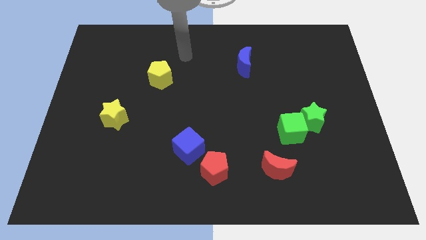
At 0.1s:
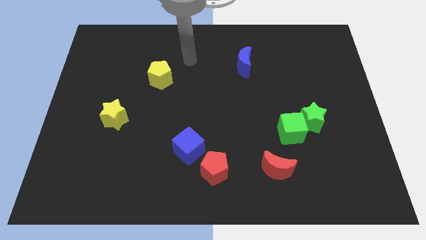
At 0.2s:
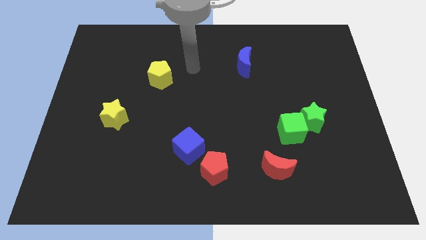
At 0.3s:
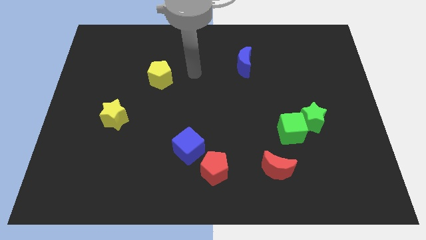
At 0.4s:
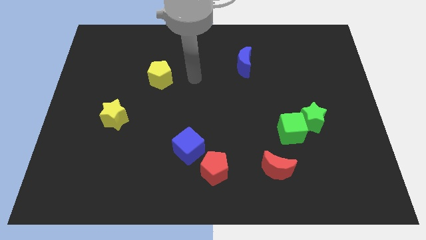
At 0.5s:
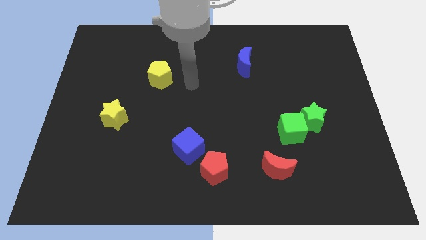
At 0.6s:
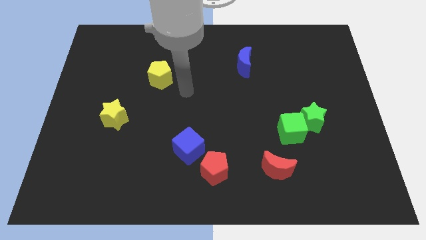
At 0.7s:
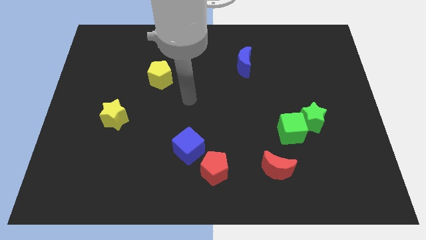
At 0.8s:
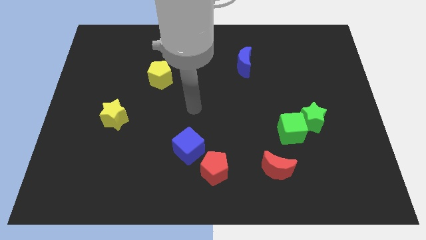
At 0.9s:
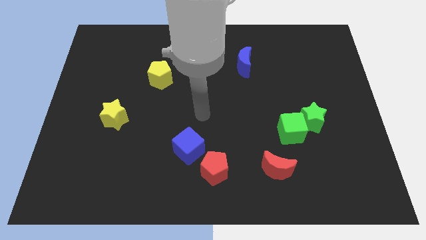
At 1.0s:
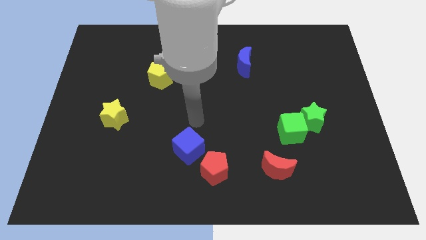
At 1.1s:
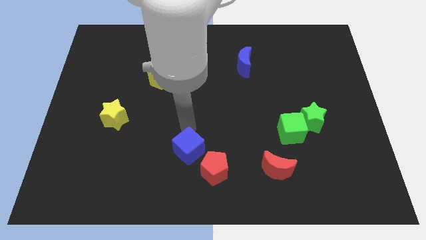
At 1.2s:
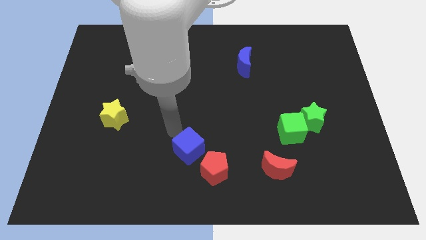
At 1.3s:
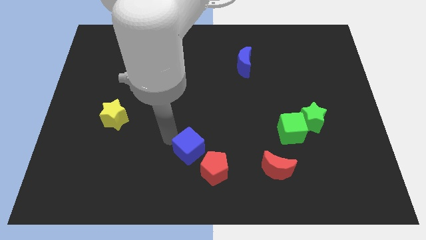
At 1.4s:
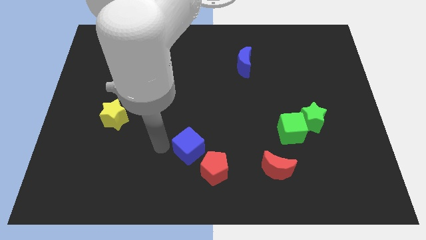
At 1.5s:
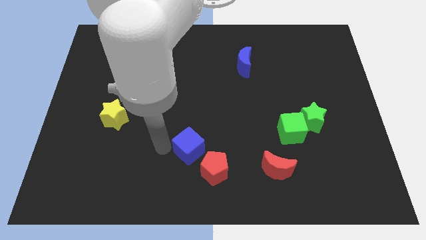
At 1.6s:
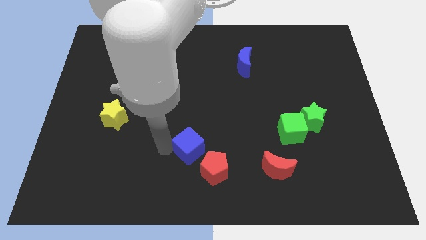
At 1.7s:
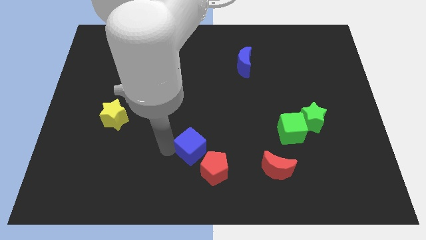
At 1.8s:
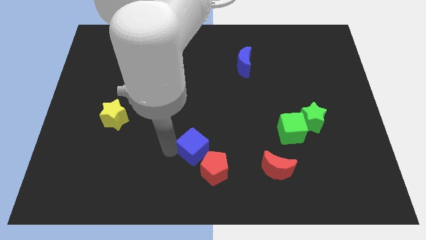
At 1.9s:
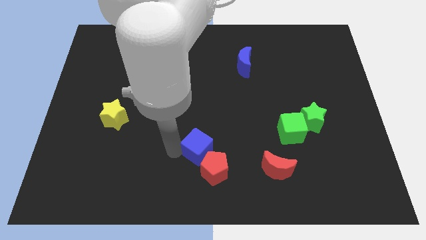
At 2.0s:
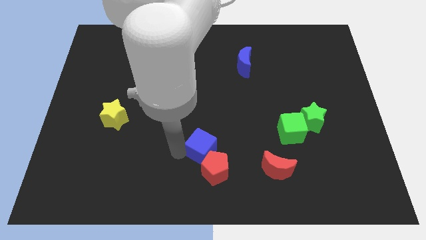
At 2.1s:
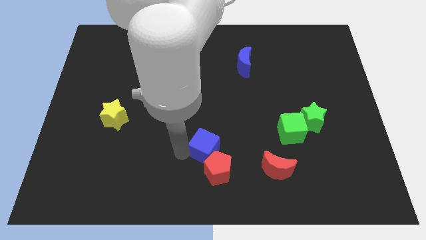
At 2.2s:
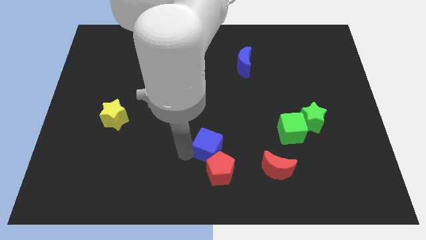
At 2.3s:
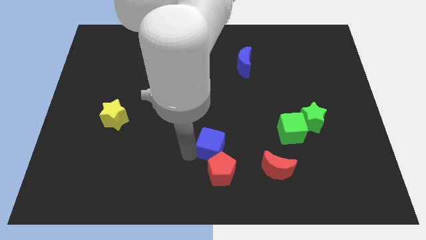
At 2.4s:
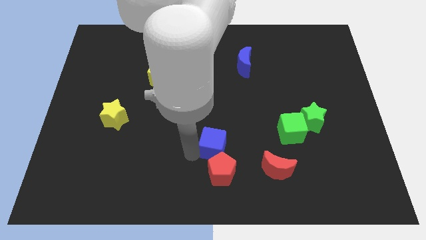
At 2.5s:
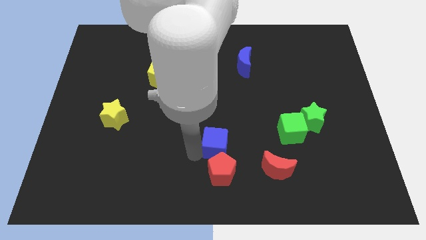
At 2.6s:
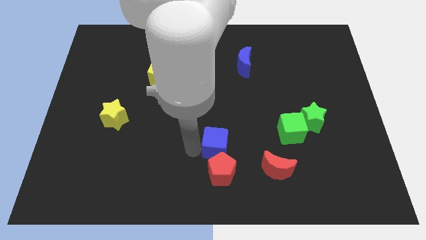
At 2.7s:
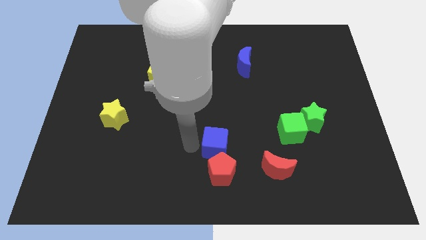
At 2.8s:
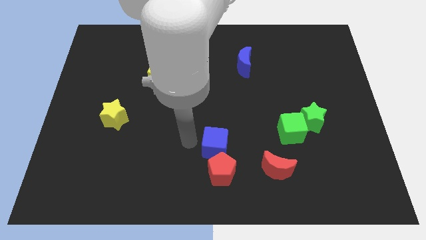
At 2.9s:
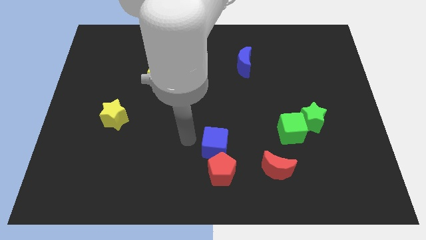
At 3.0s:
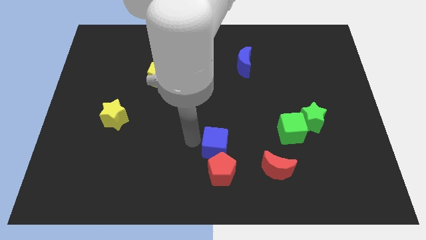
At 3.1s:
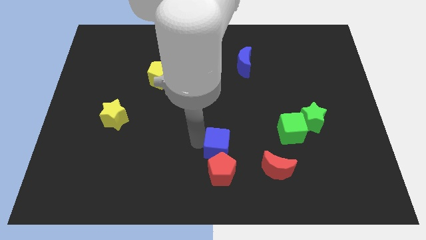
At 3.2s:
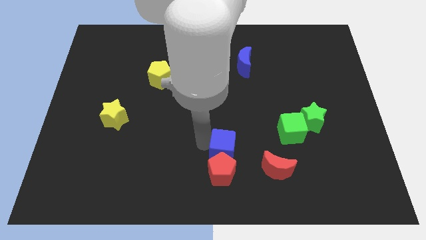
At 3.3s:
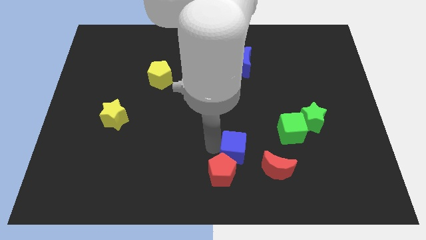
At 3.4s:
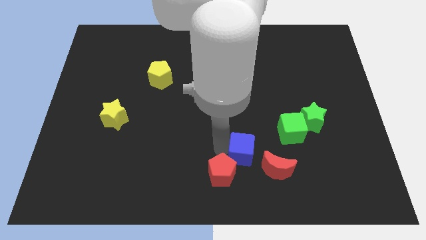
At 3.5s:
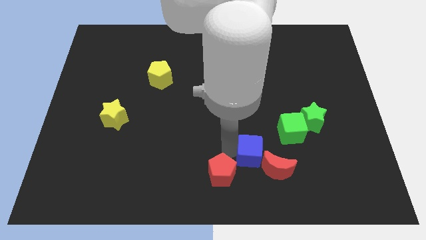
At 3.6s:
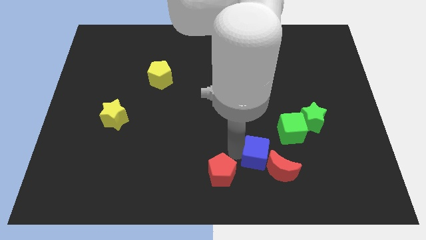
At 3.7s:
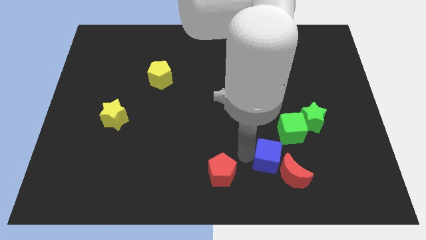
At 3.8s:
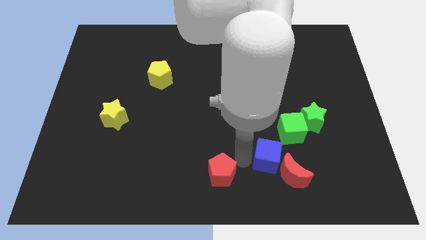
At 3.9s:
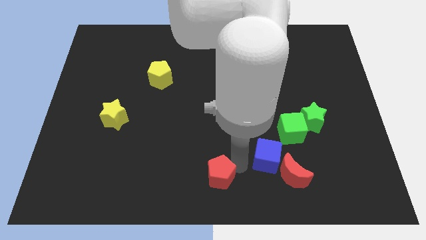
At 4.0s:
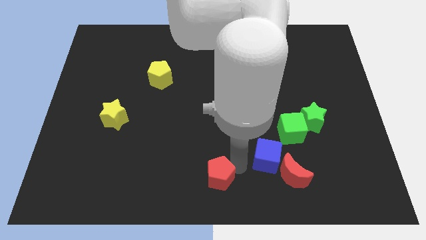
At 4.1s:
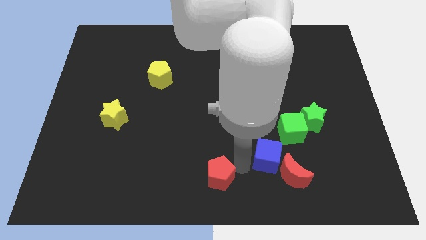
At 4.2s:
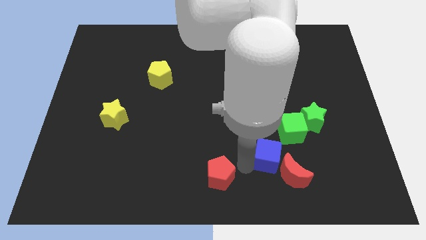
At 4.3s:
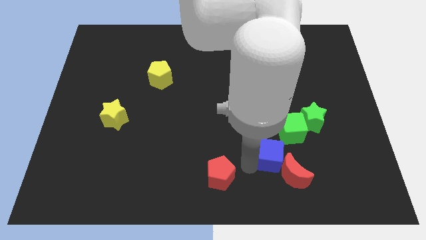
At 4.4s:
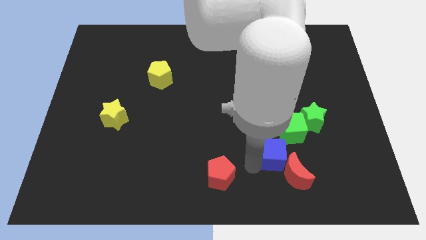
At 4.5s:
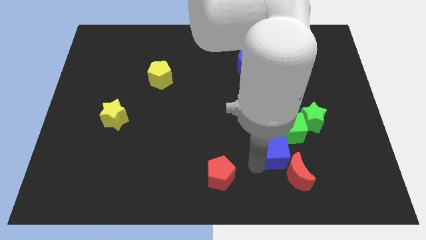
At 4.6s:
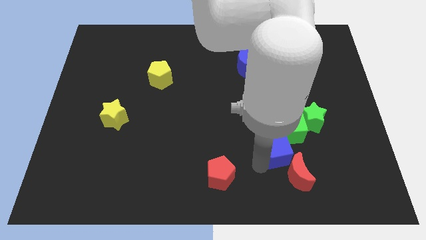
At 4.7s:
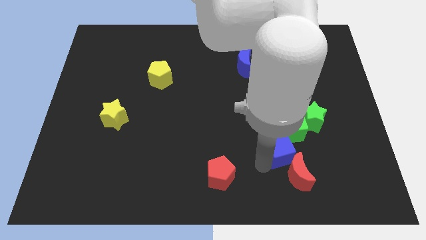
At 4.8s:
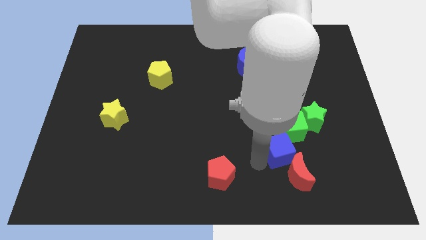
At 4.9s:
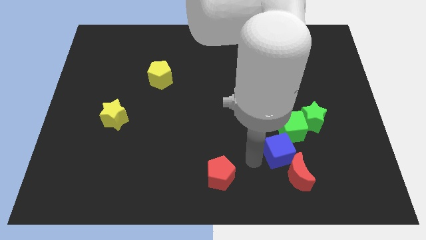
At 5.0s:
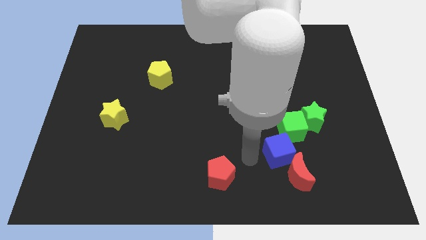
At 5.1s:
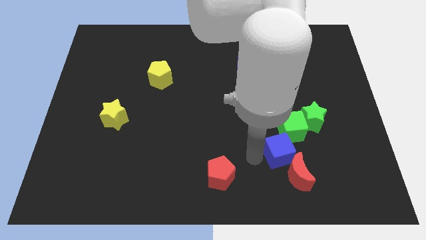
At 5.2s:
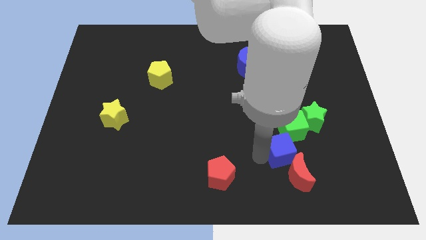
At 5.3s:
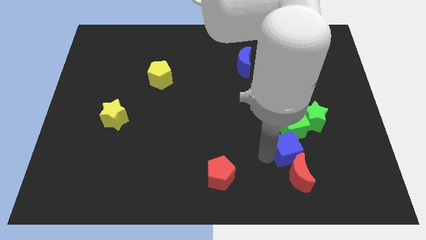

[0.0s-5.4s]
push the blue cube to the right

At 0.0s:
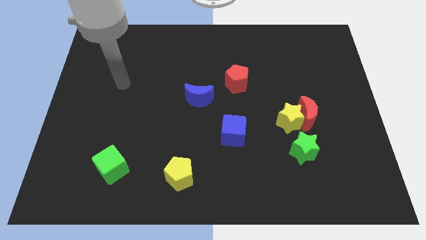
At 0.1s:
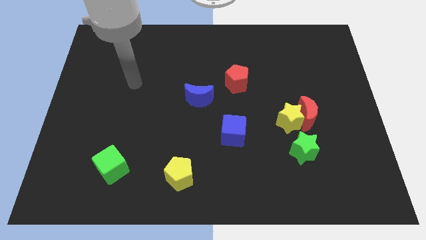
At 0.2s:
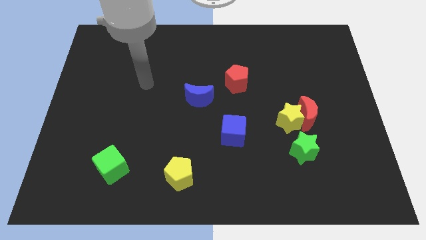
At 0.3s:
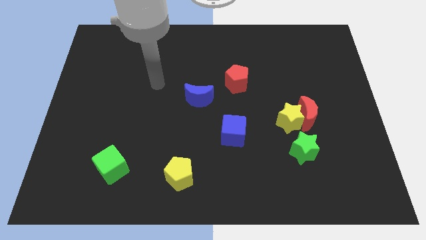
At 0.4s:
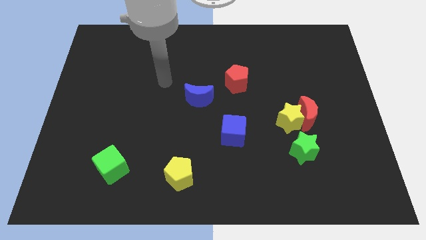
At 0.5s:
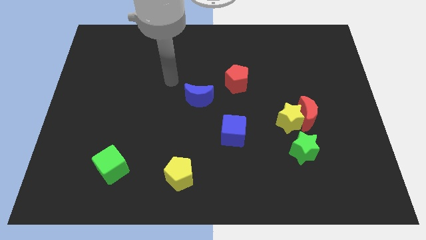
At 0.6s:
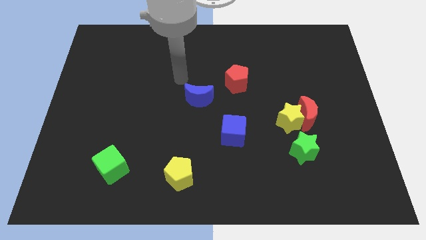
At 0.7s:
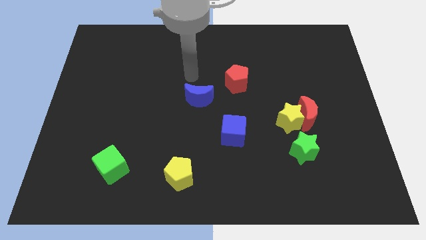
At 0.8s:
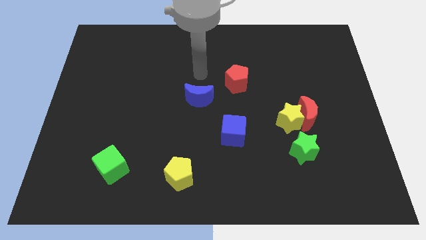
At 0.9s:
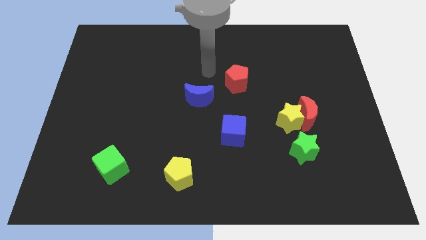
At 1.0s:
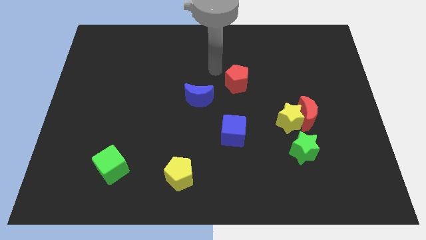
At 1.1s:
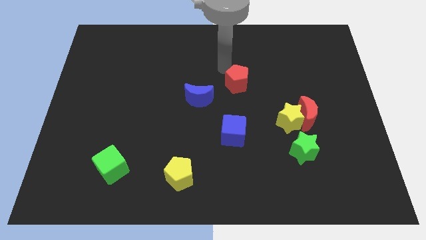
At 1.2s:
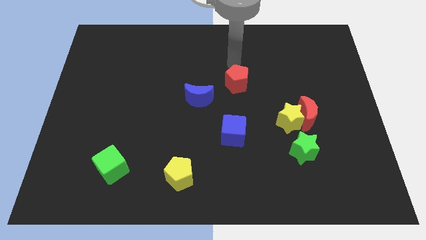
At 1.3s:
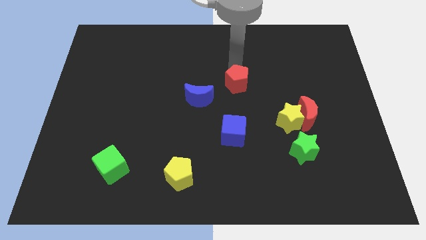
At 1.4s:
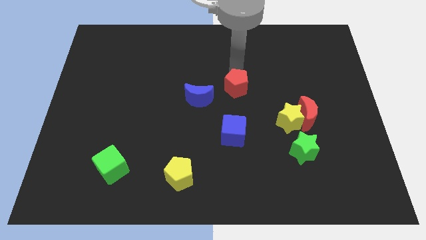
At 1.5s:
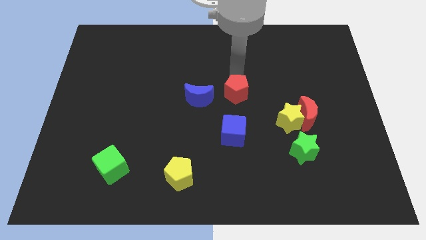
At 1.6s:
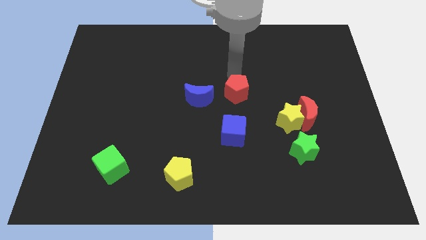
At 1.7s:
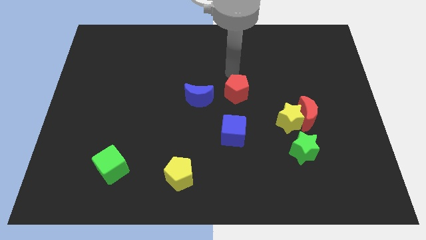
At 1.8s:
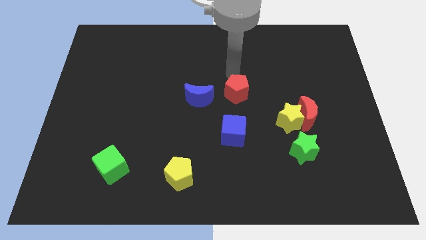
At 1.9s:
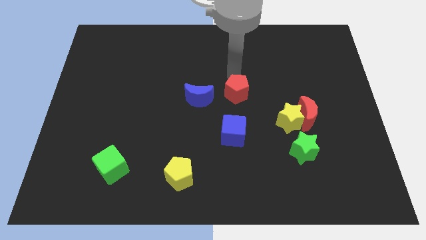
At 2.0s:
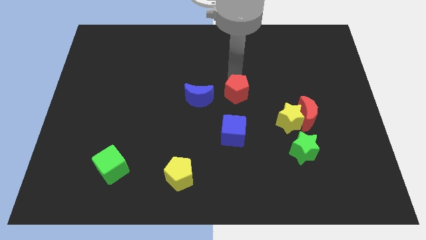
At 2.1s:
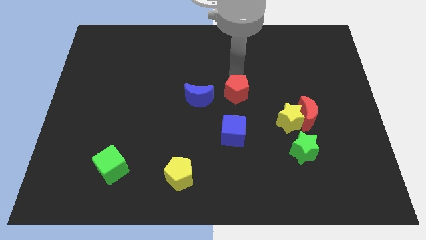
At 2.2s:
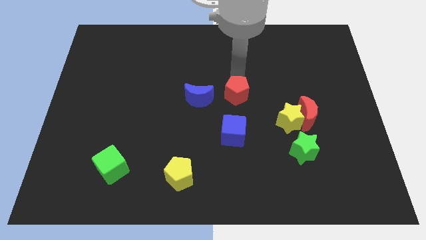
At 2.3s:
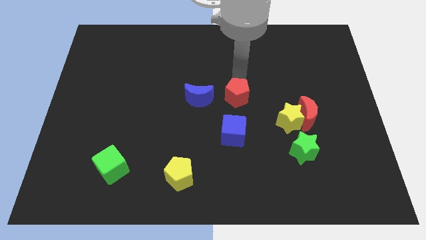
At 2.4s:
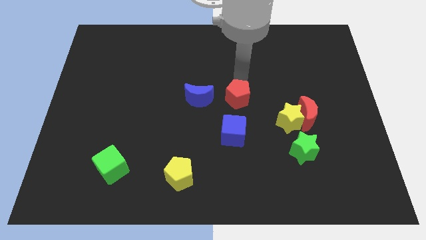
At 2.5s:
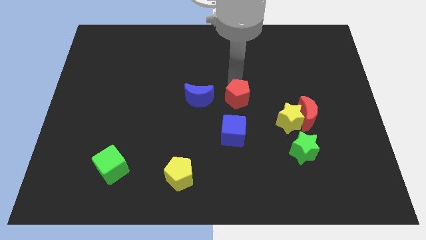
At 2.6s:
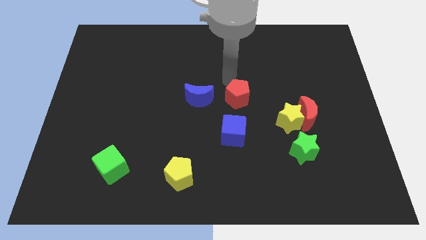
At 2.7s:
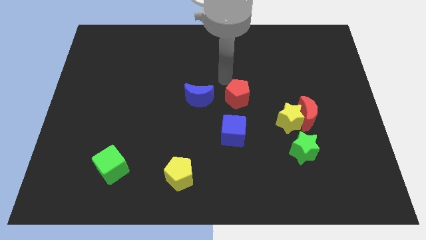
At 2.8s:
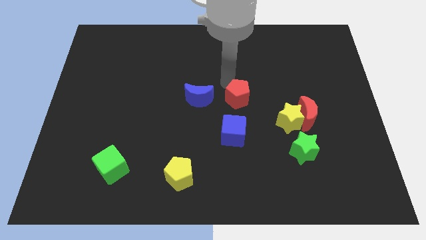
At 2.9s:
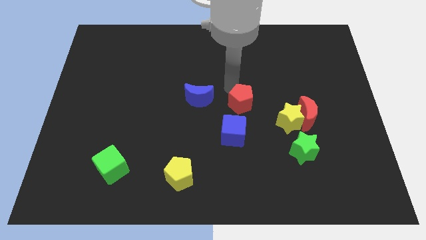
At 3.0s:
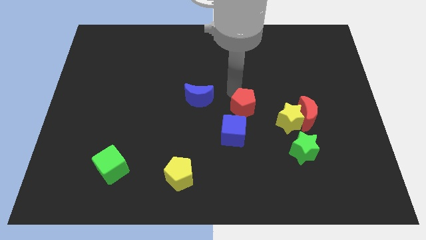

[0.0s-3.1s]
push the red pentagon a bit down

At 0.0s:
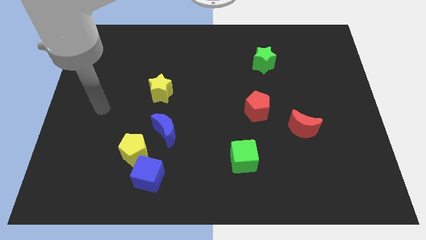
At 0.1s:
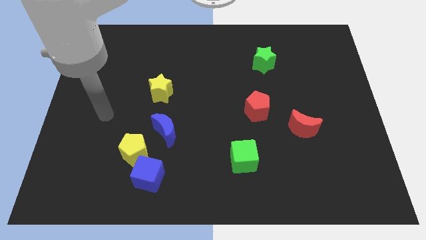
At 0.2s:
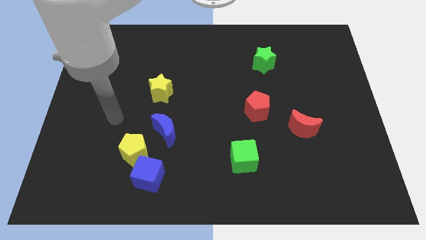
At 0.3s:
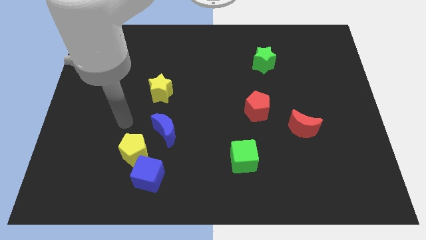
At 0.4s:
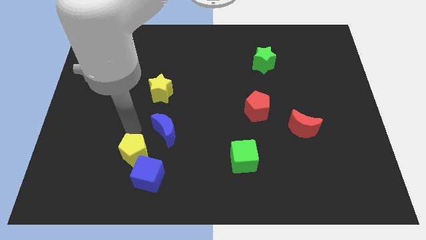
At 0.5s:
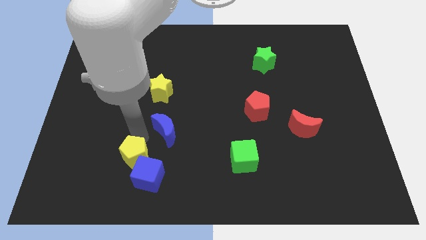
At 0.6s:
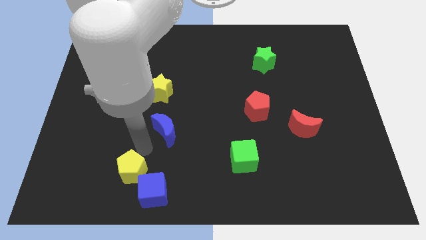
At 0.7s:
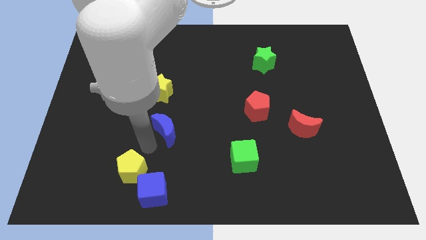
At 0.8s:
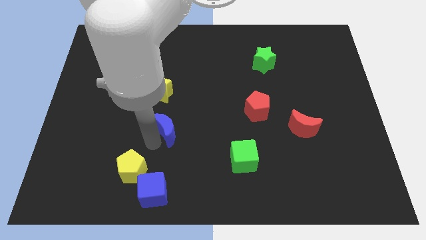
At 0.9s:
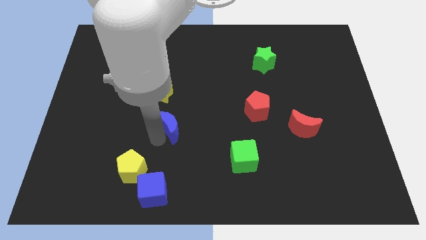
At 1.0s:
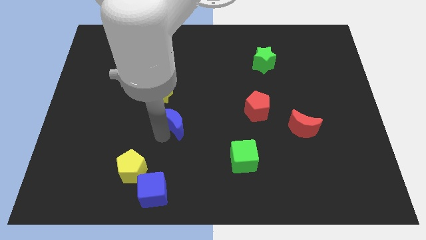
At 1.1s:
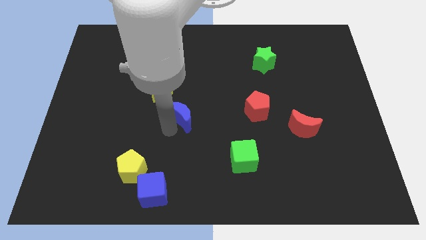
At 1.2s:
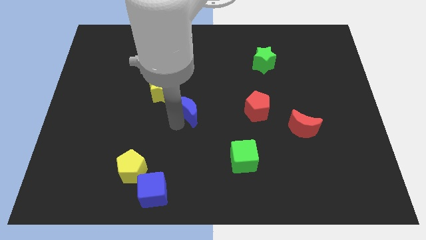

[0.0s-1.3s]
move the blue moon a bit upwards and right diagonally
